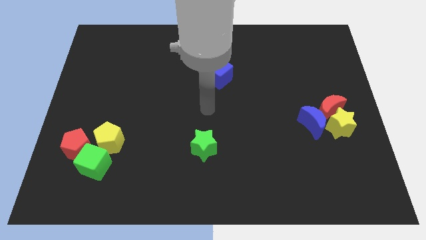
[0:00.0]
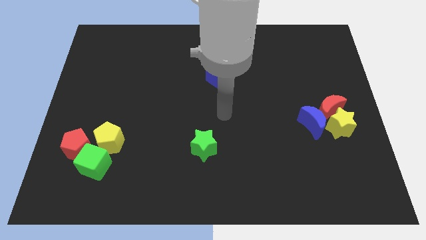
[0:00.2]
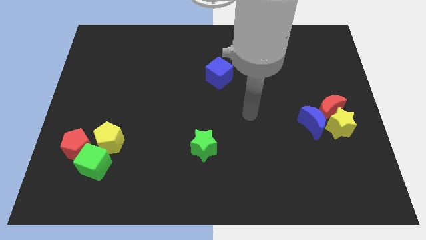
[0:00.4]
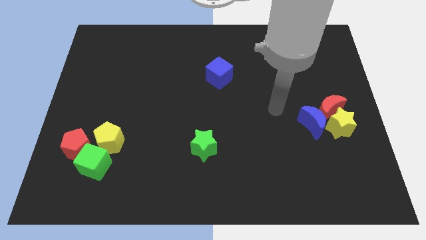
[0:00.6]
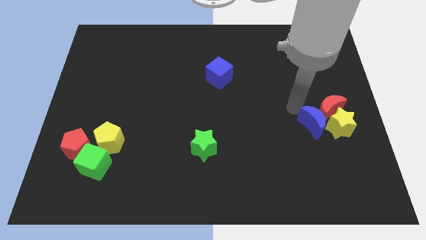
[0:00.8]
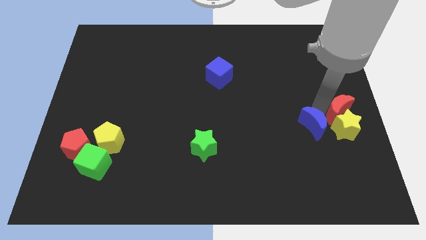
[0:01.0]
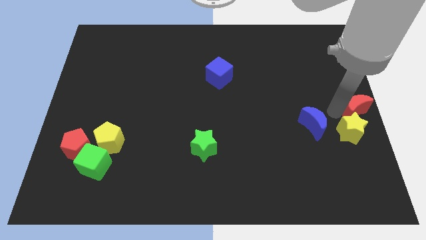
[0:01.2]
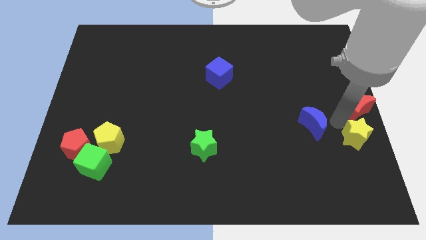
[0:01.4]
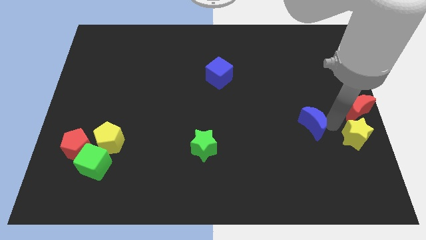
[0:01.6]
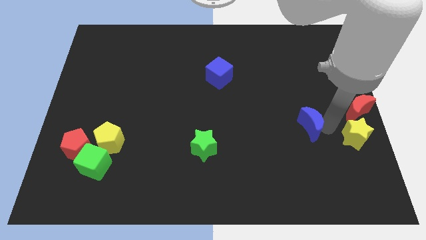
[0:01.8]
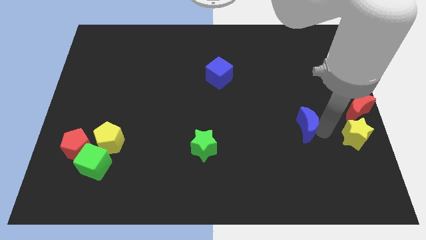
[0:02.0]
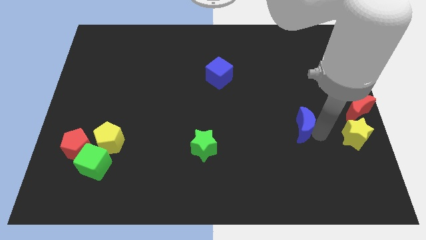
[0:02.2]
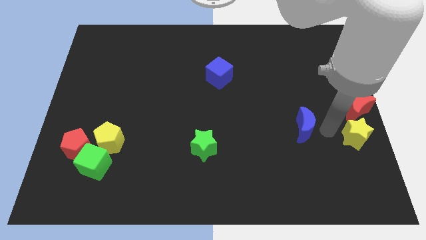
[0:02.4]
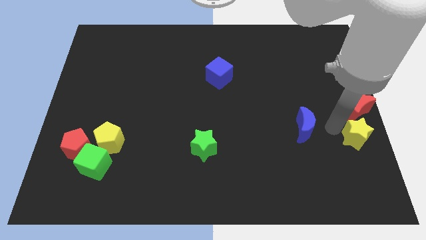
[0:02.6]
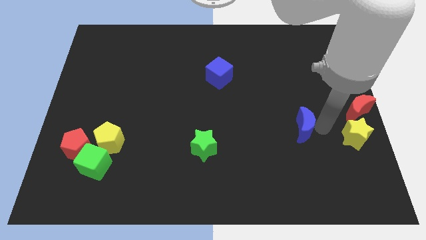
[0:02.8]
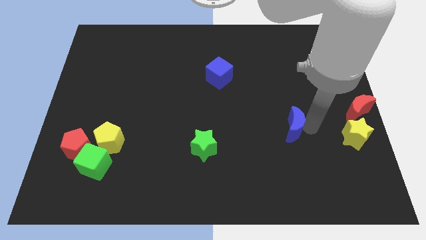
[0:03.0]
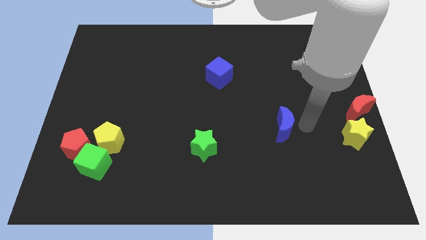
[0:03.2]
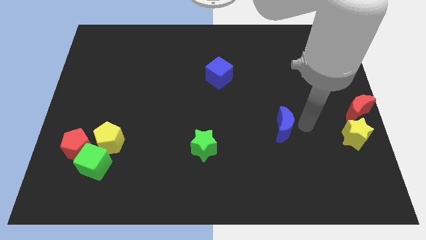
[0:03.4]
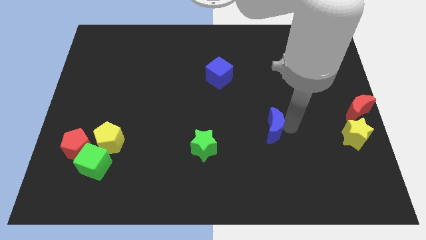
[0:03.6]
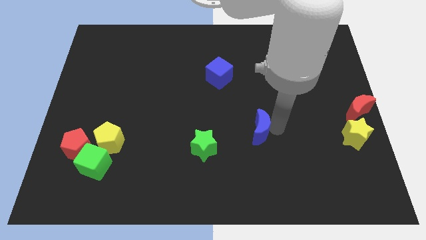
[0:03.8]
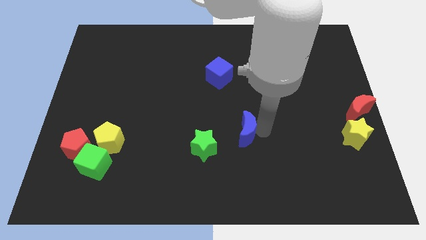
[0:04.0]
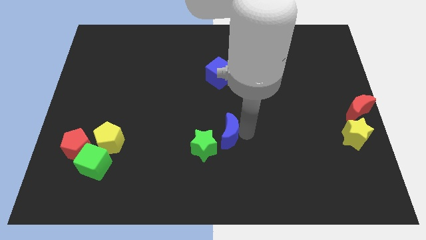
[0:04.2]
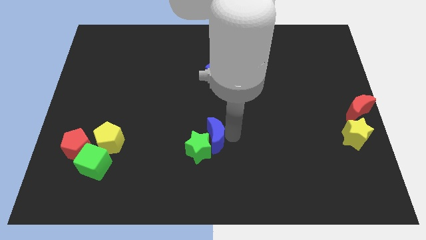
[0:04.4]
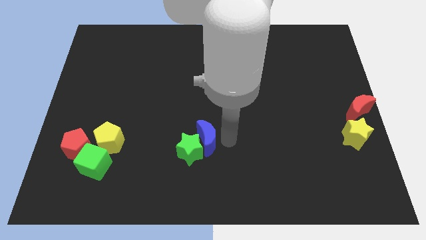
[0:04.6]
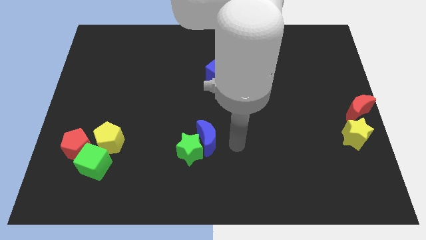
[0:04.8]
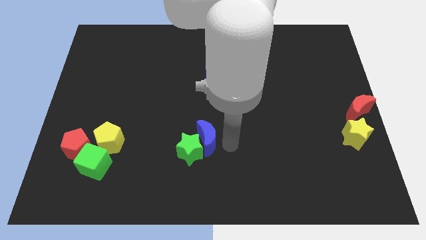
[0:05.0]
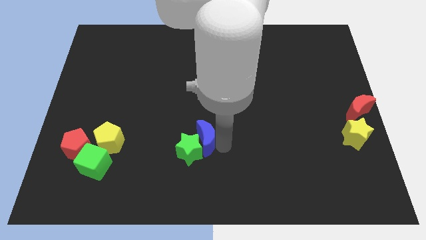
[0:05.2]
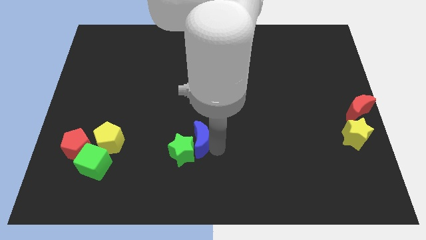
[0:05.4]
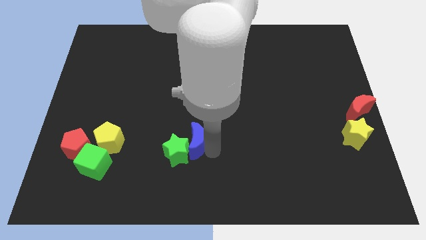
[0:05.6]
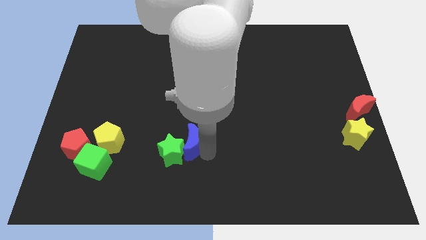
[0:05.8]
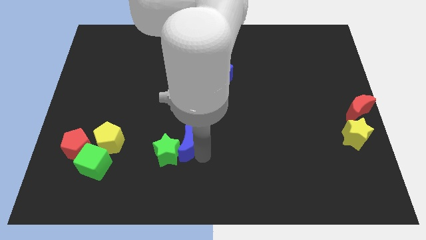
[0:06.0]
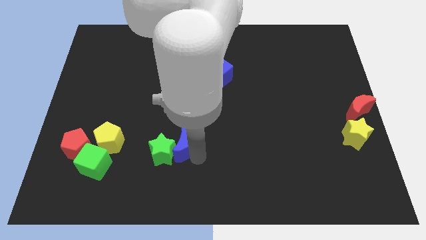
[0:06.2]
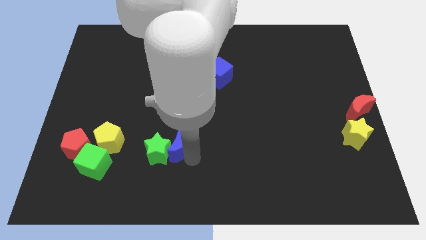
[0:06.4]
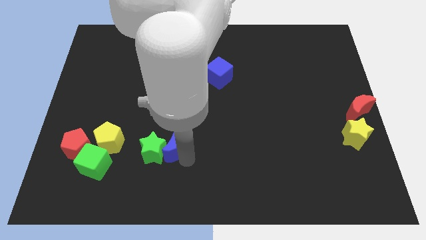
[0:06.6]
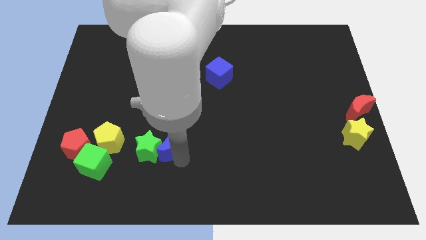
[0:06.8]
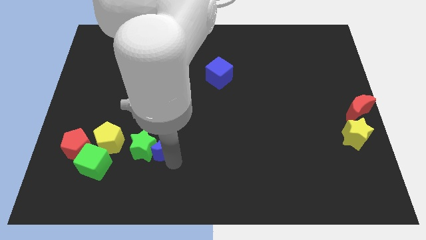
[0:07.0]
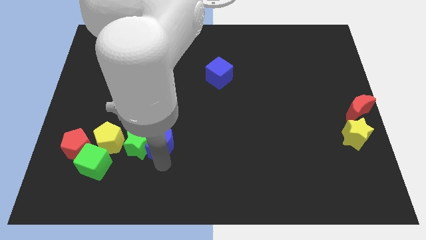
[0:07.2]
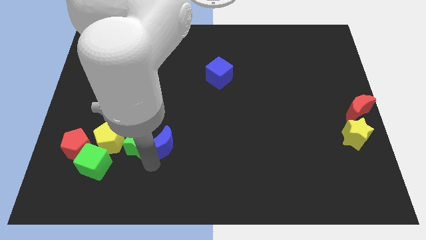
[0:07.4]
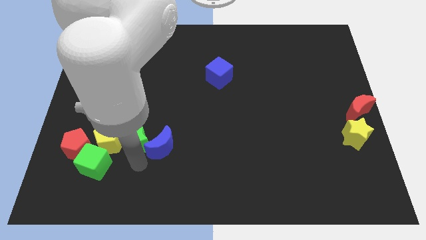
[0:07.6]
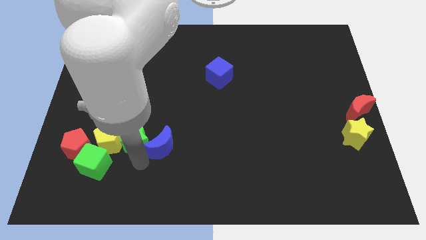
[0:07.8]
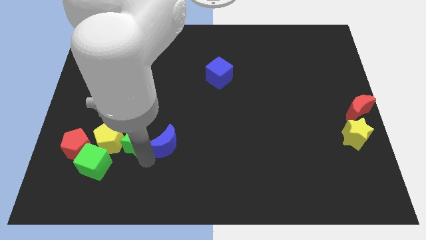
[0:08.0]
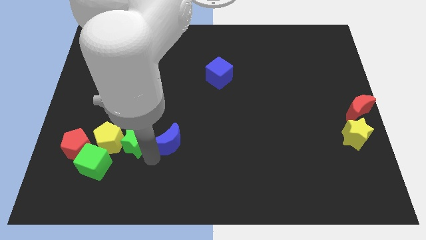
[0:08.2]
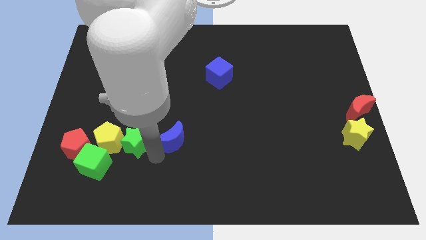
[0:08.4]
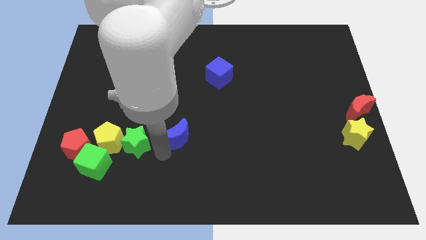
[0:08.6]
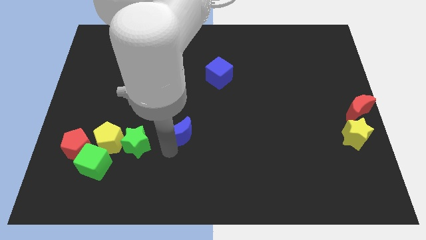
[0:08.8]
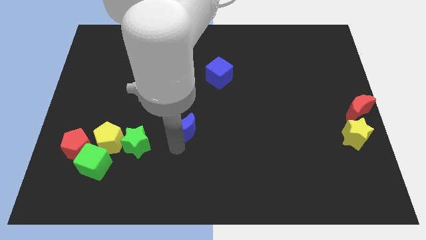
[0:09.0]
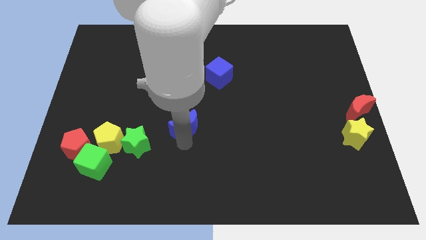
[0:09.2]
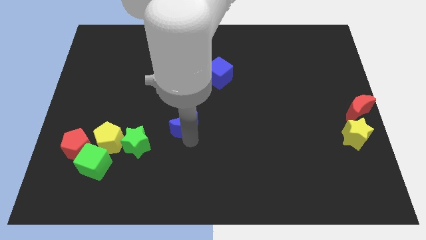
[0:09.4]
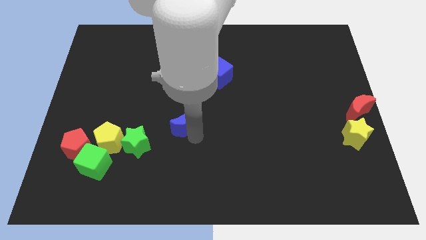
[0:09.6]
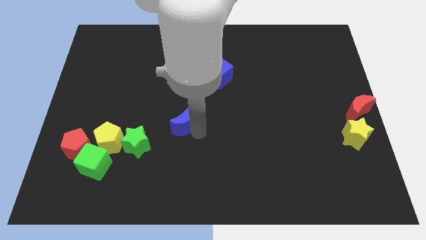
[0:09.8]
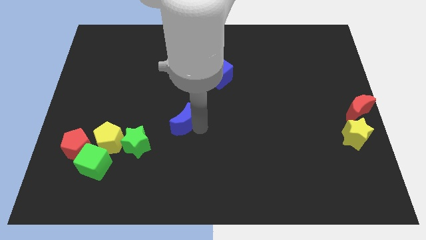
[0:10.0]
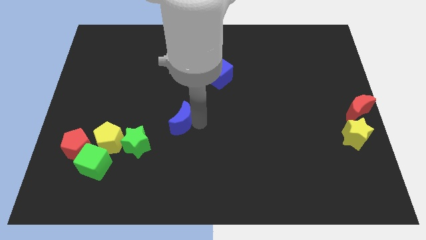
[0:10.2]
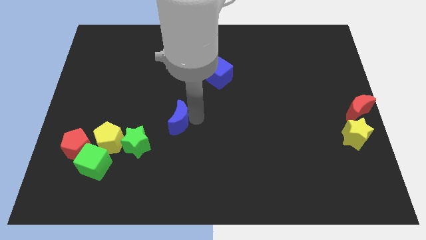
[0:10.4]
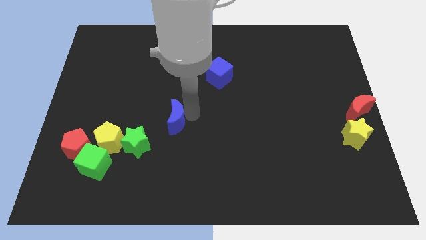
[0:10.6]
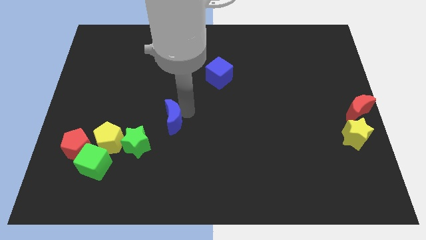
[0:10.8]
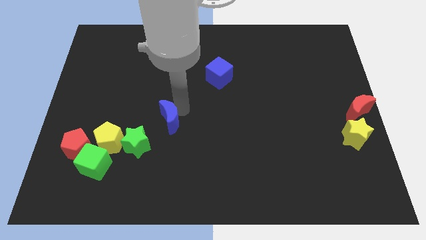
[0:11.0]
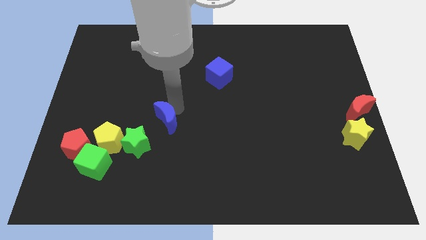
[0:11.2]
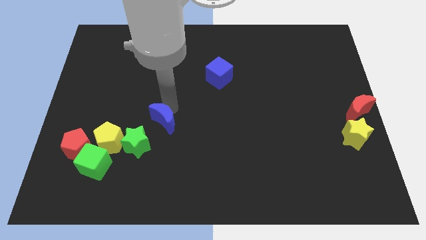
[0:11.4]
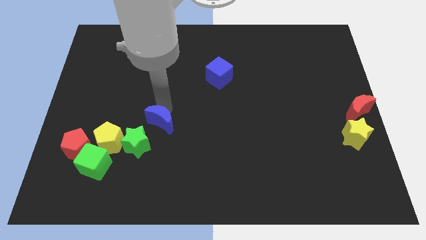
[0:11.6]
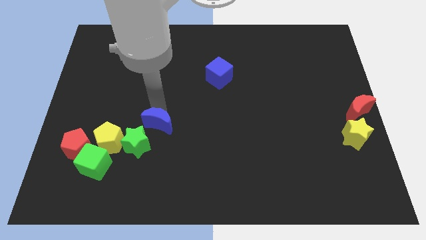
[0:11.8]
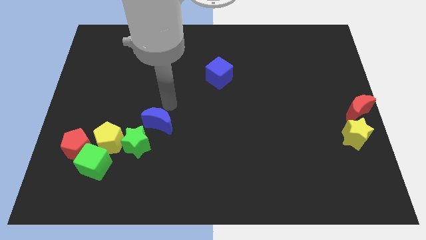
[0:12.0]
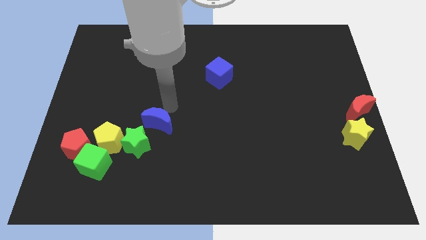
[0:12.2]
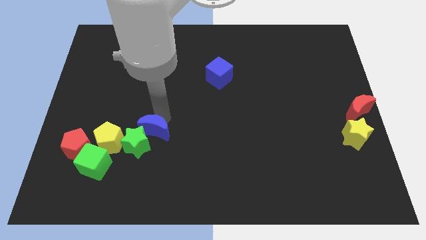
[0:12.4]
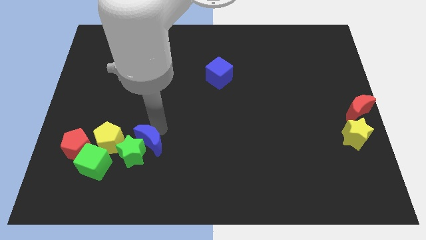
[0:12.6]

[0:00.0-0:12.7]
move the blue moon to the right side of the red pentagon
